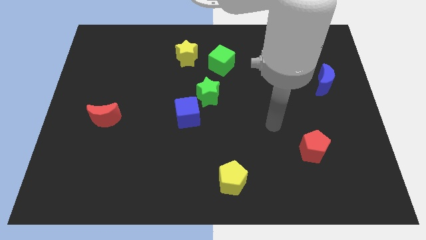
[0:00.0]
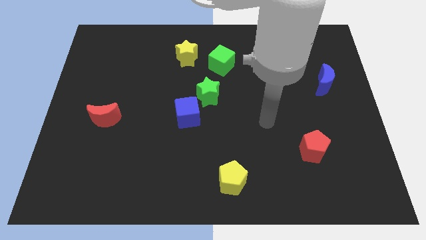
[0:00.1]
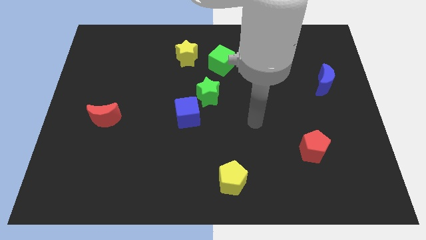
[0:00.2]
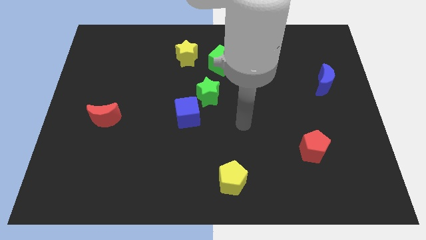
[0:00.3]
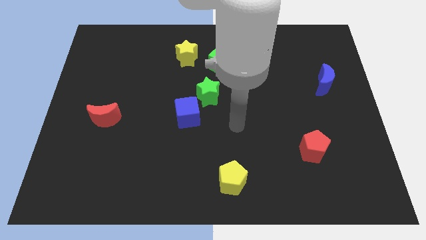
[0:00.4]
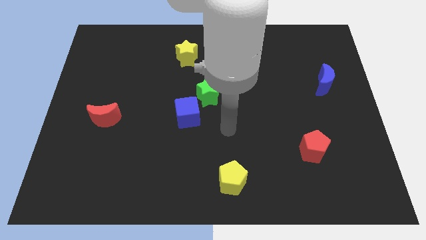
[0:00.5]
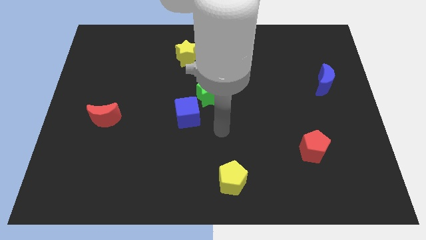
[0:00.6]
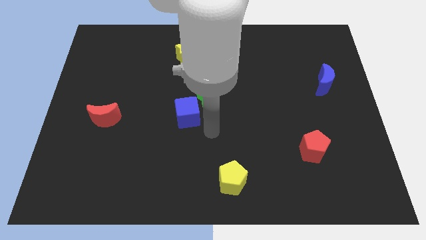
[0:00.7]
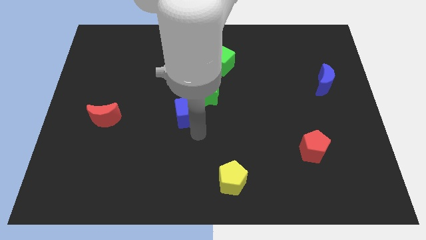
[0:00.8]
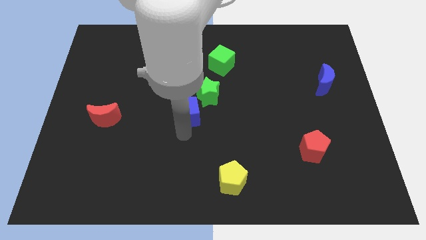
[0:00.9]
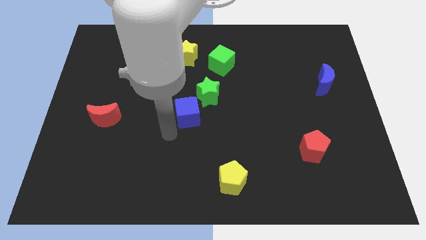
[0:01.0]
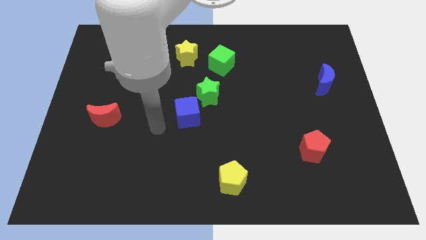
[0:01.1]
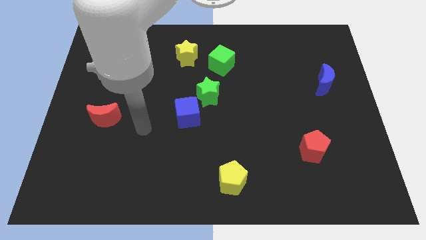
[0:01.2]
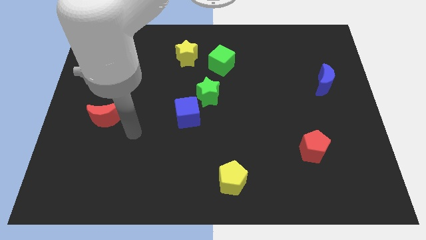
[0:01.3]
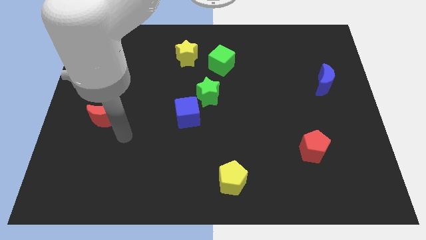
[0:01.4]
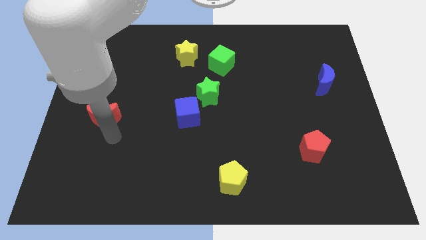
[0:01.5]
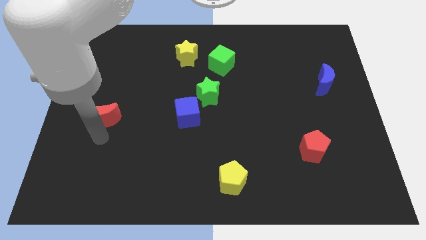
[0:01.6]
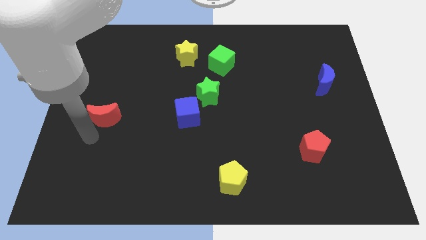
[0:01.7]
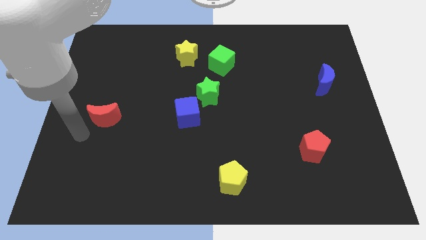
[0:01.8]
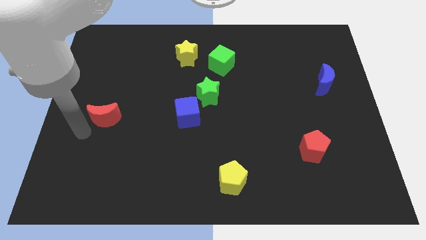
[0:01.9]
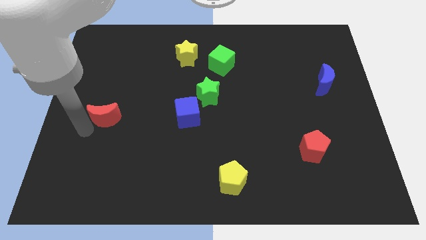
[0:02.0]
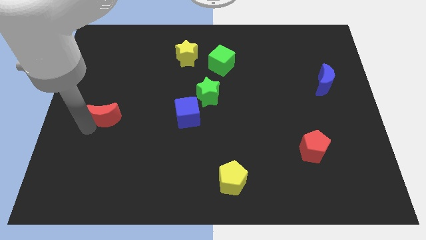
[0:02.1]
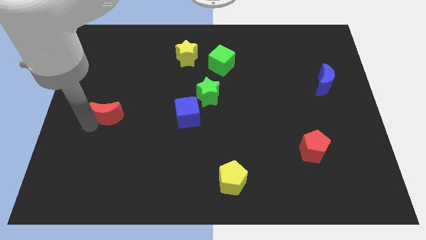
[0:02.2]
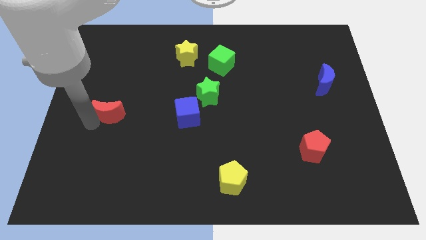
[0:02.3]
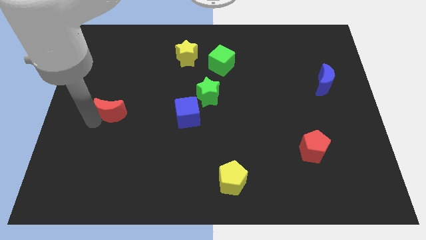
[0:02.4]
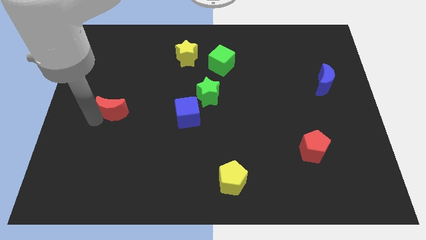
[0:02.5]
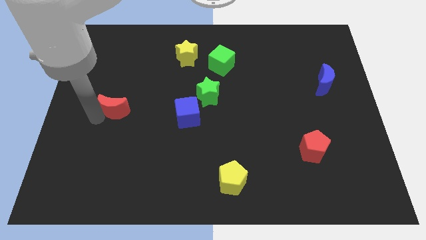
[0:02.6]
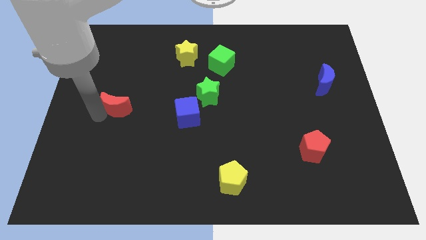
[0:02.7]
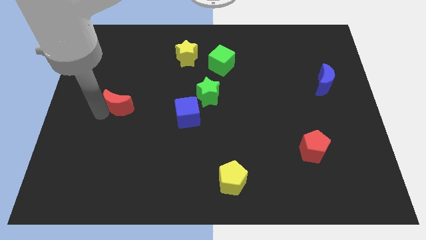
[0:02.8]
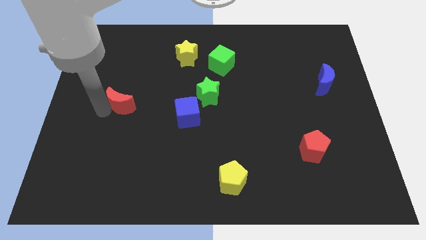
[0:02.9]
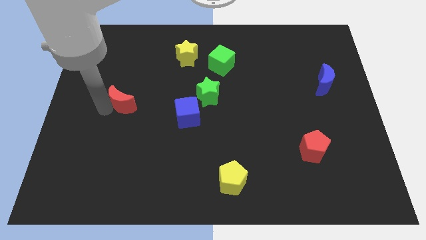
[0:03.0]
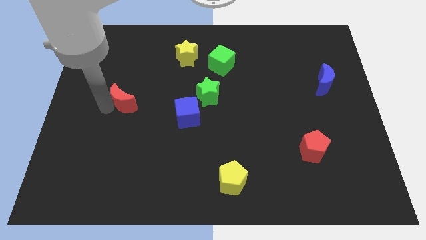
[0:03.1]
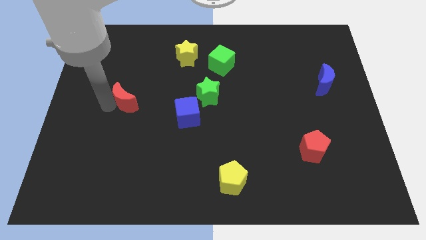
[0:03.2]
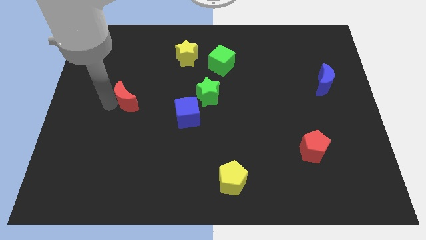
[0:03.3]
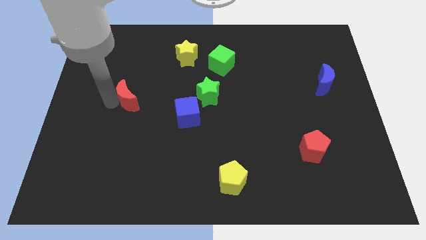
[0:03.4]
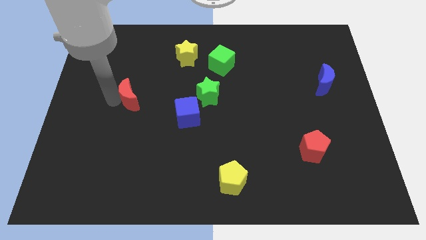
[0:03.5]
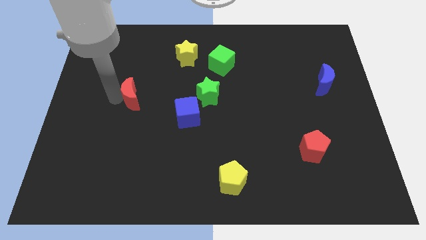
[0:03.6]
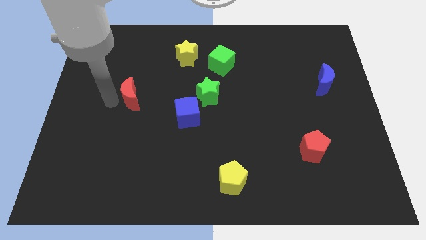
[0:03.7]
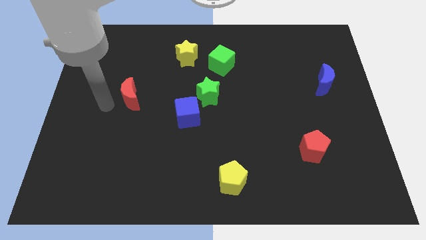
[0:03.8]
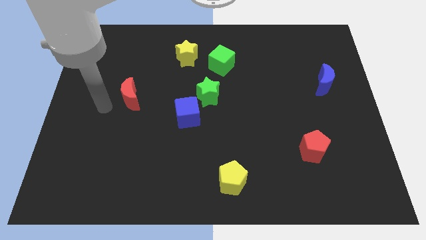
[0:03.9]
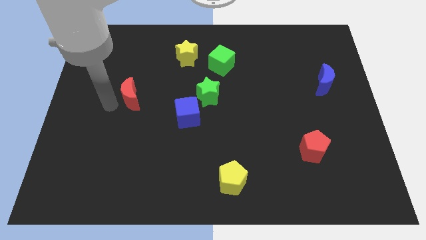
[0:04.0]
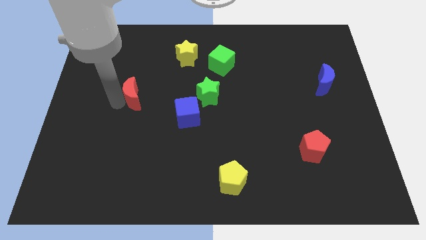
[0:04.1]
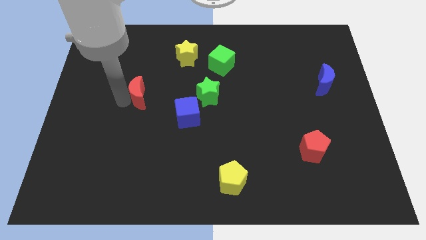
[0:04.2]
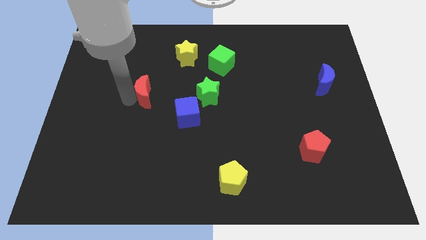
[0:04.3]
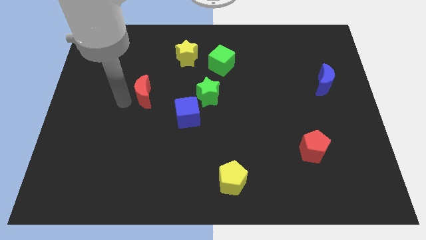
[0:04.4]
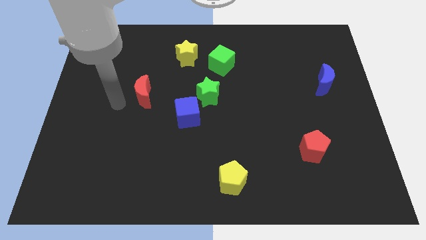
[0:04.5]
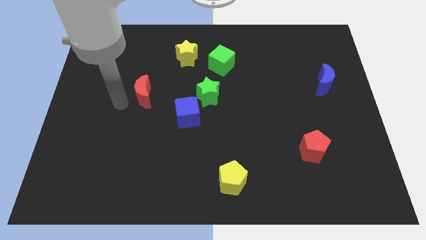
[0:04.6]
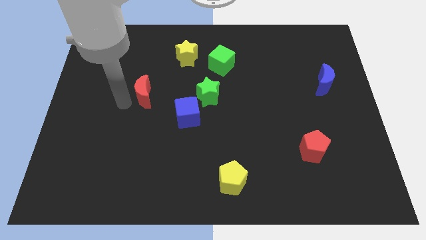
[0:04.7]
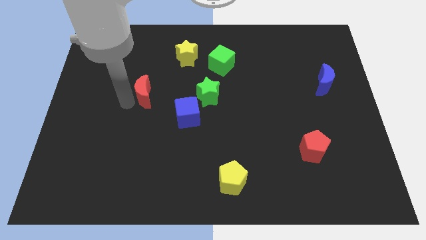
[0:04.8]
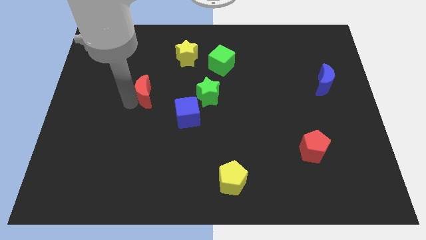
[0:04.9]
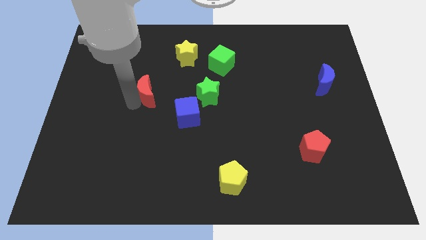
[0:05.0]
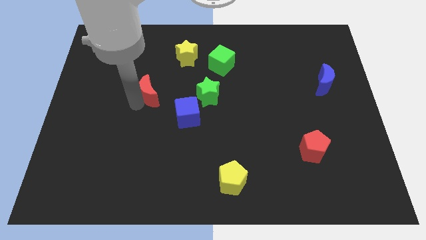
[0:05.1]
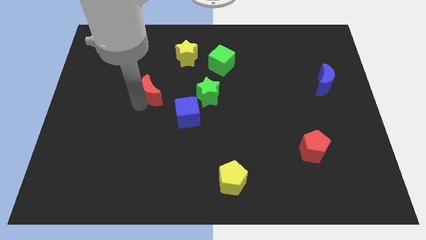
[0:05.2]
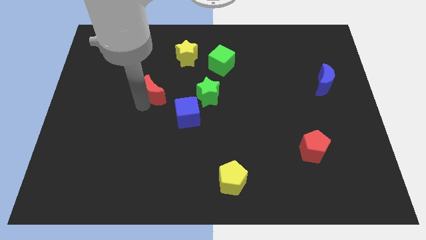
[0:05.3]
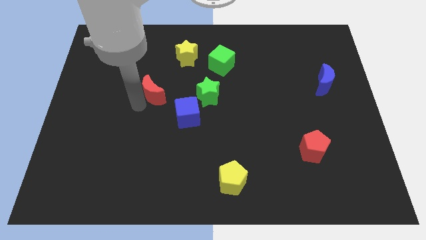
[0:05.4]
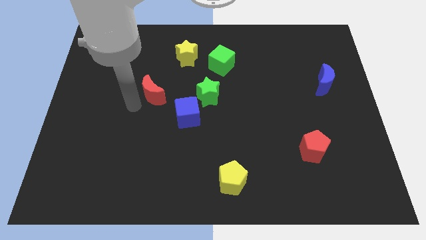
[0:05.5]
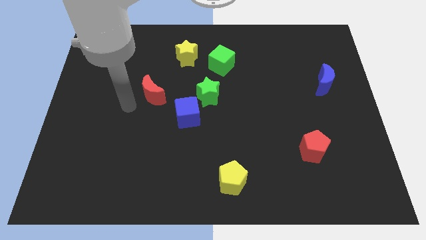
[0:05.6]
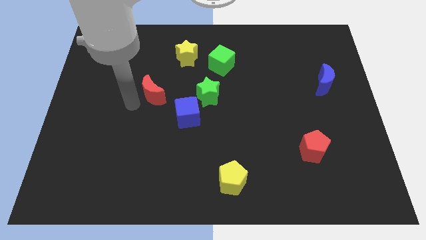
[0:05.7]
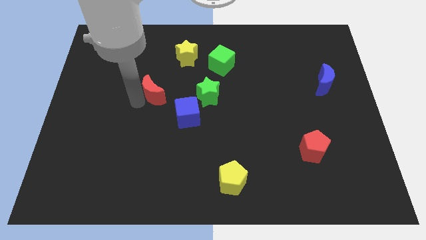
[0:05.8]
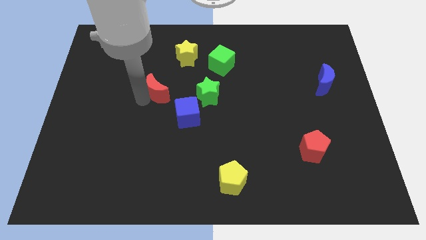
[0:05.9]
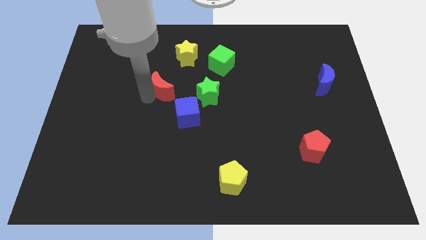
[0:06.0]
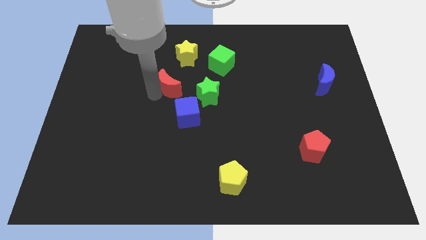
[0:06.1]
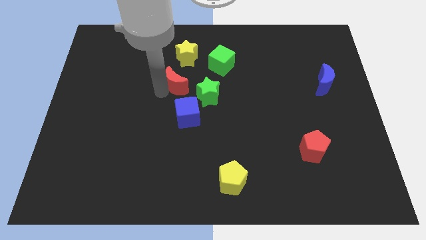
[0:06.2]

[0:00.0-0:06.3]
slide the red moon diagonally up and to the left of the green star
